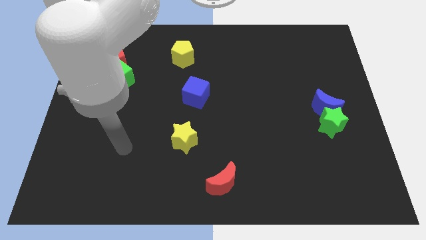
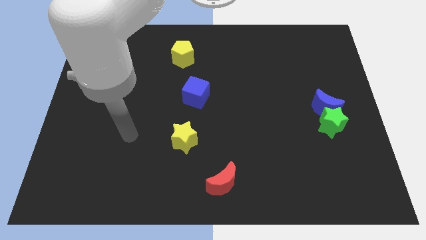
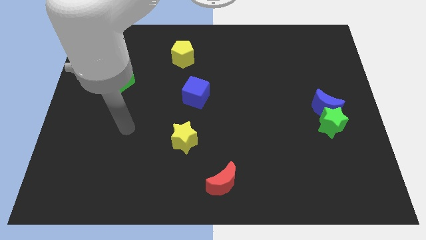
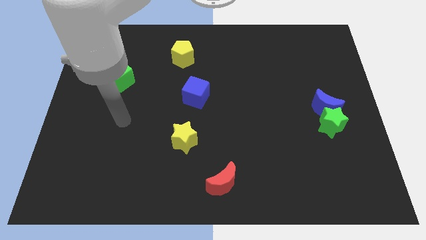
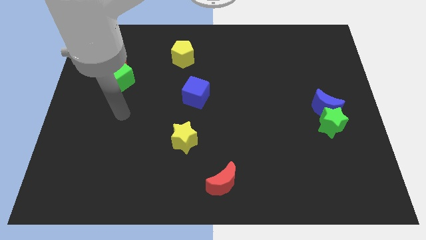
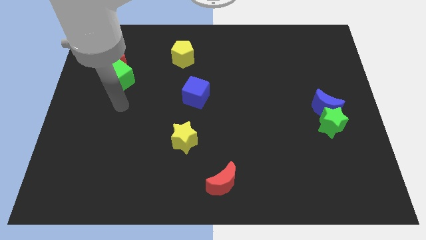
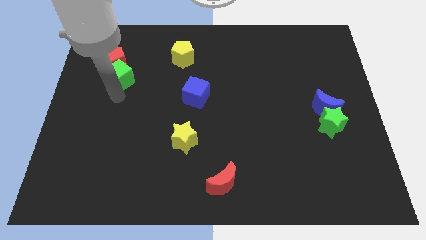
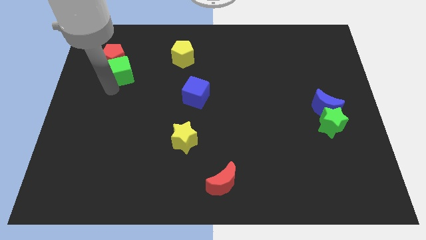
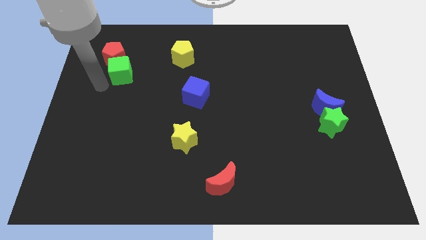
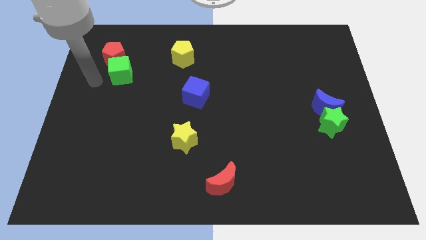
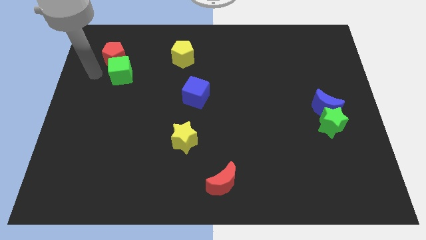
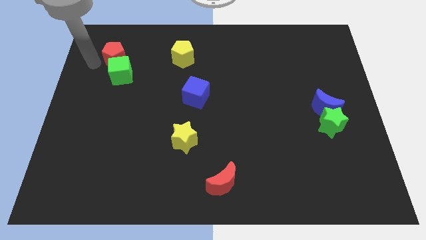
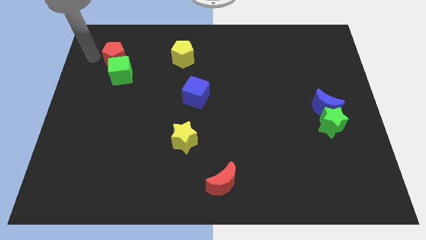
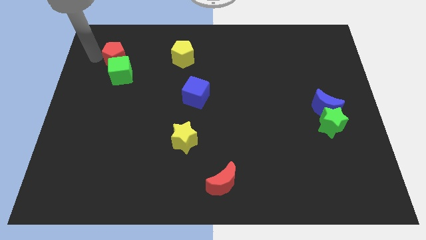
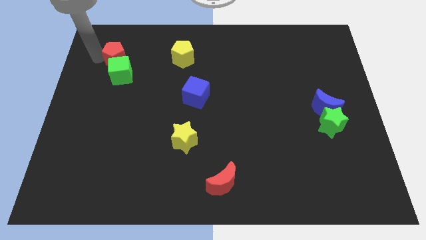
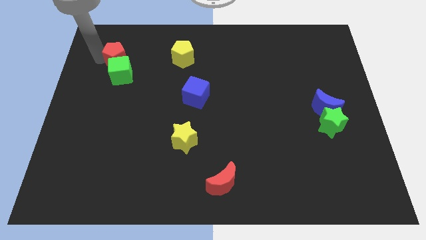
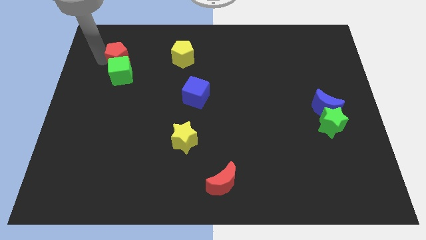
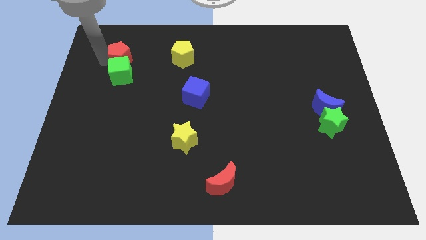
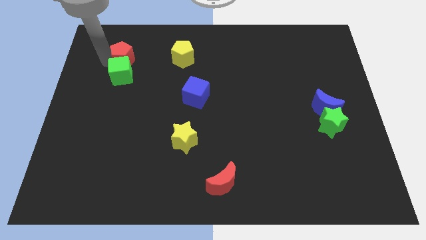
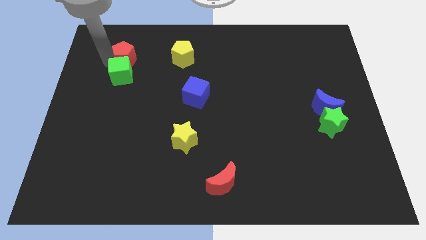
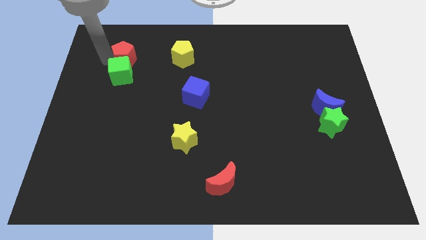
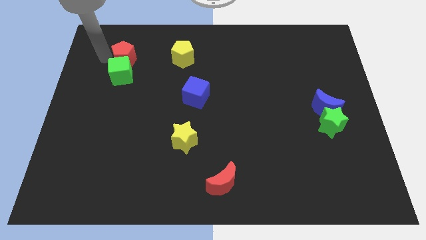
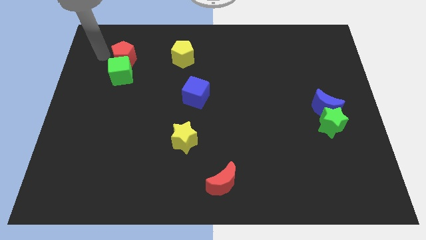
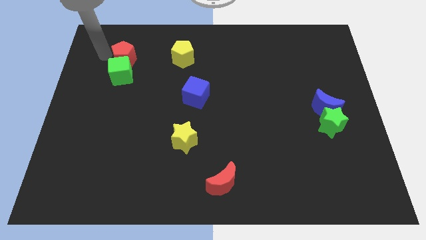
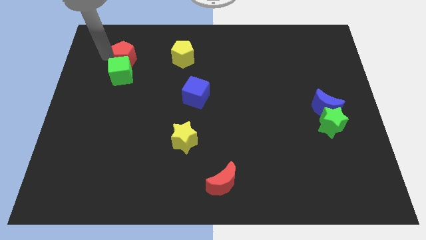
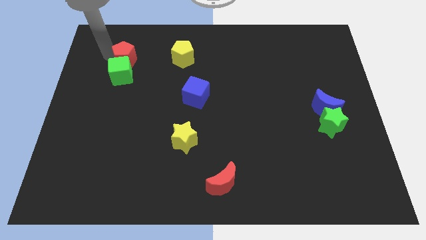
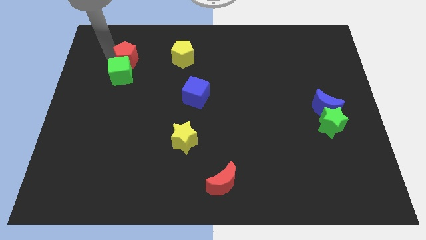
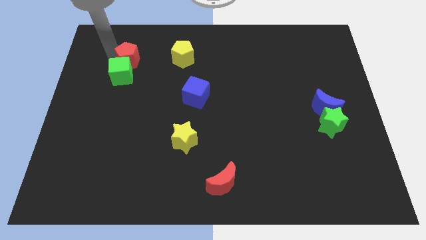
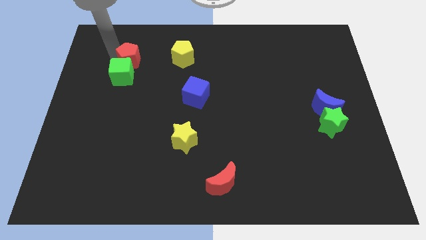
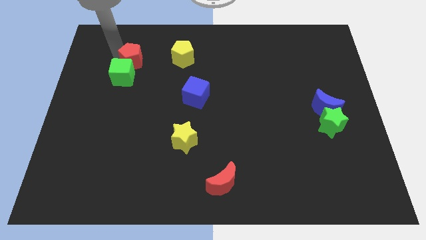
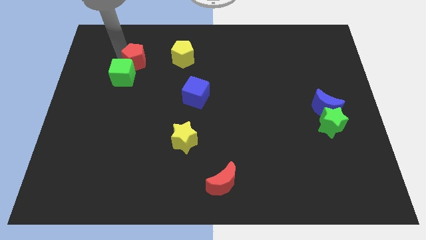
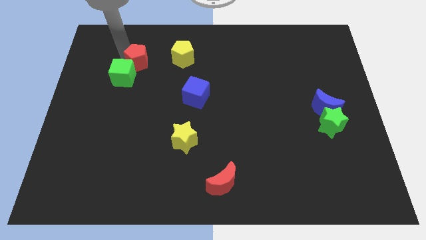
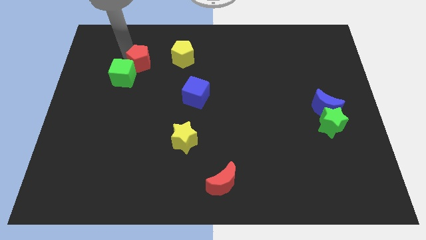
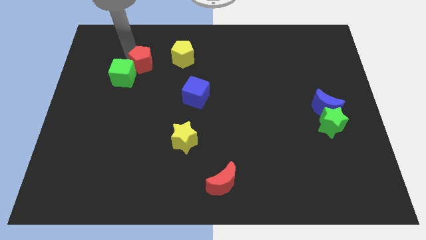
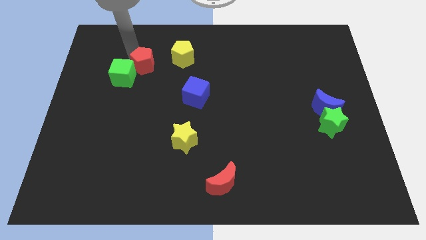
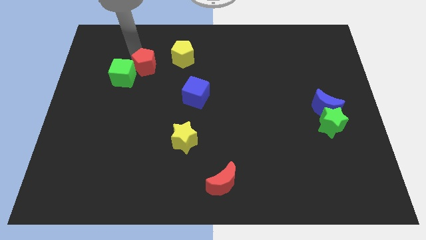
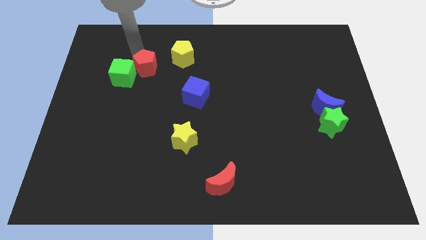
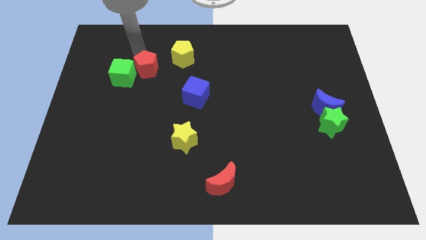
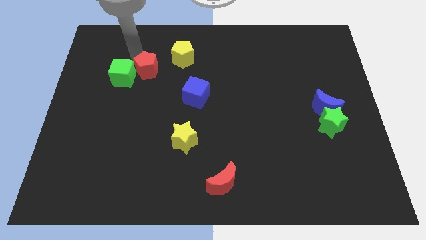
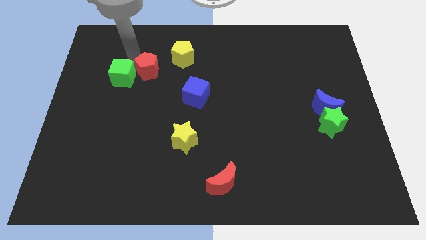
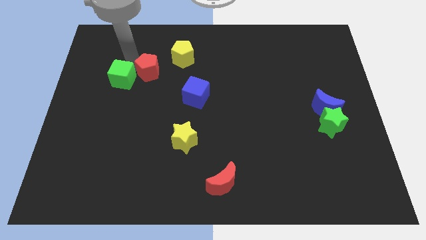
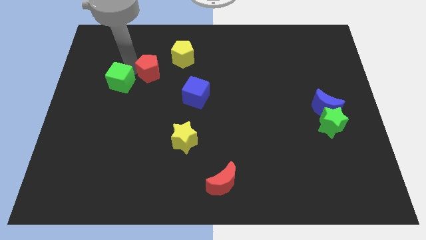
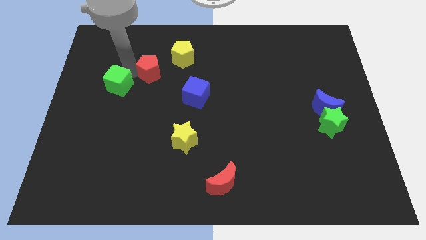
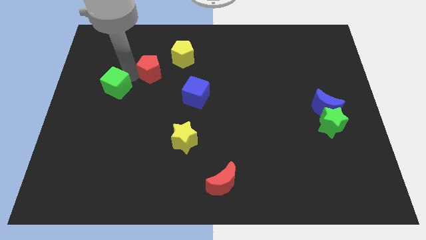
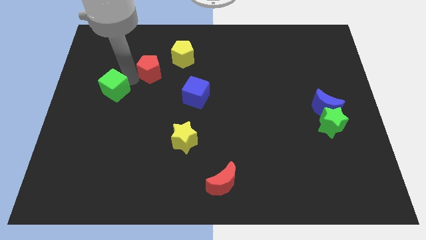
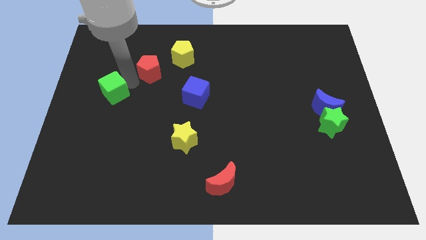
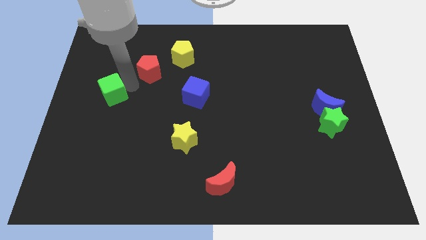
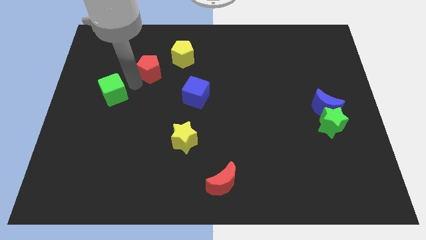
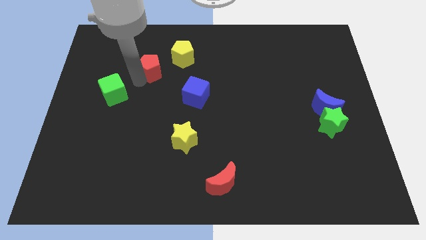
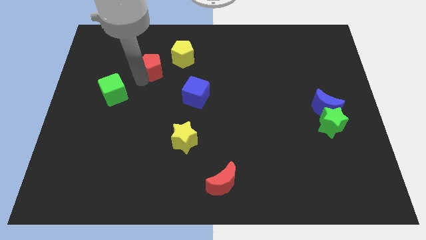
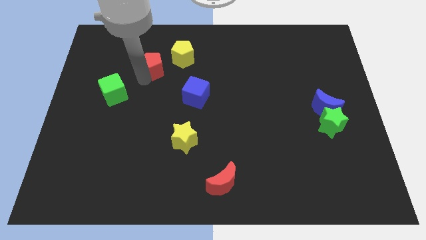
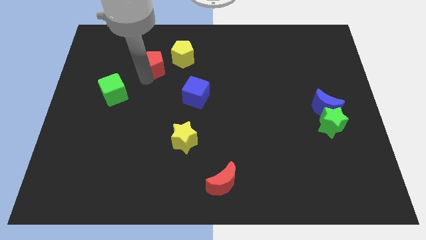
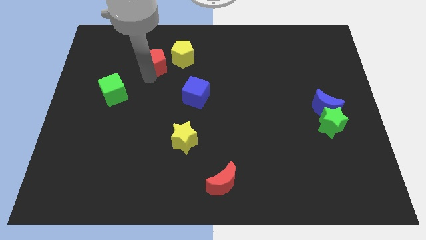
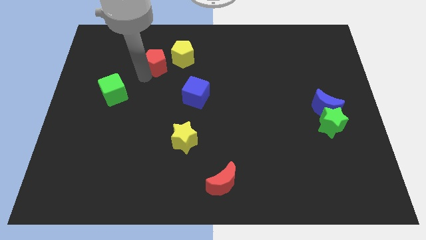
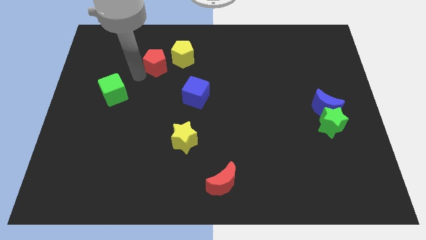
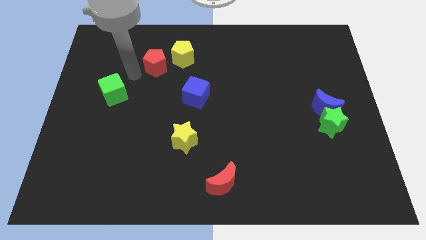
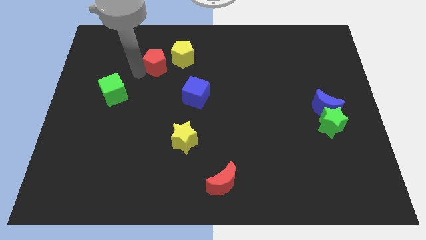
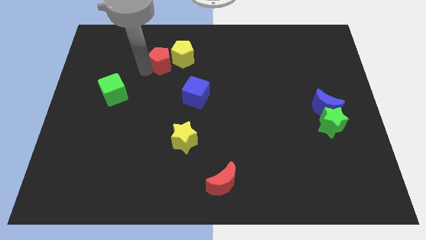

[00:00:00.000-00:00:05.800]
move the red pentagon next to the yellow pentagon

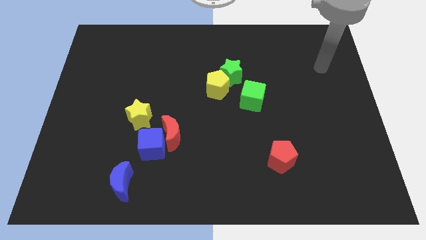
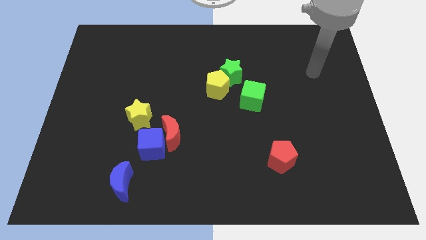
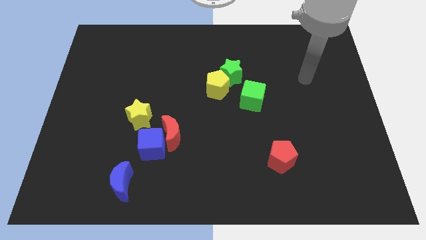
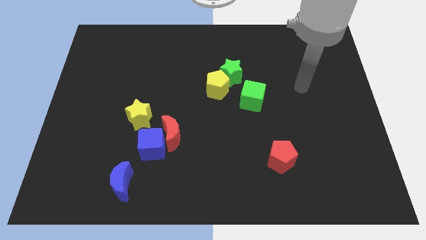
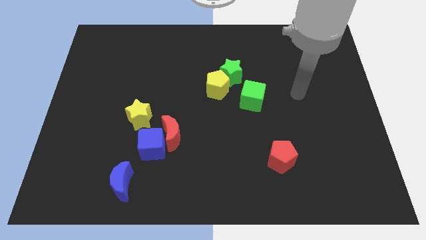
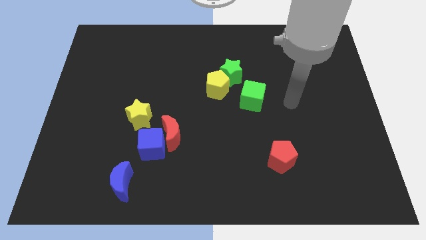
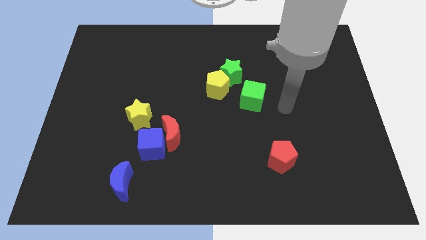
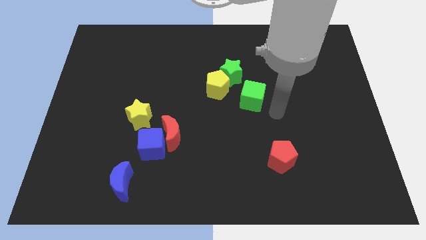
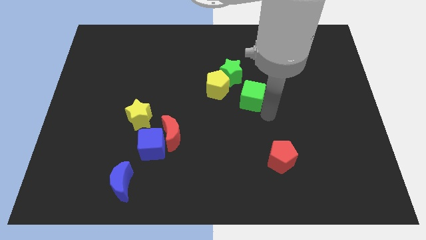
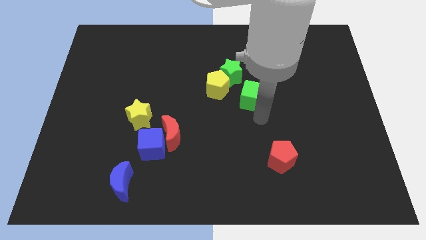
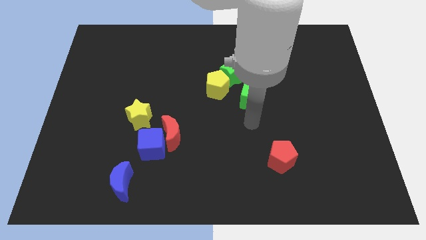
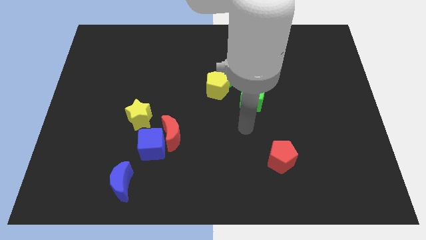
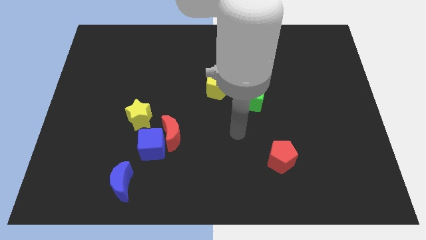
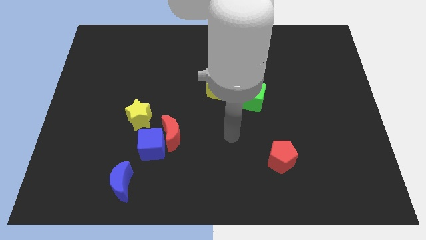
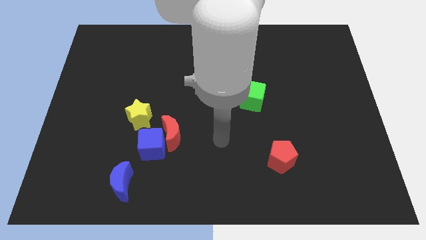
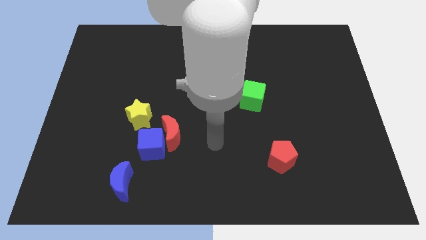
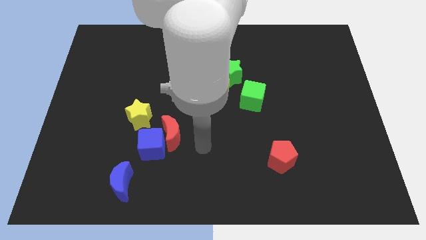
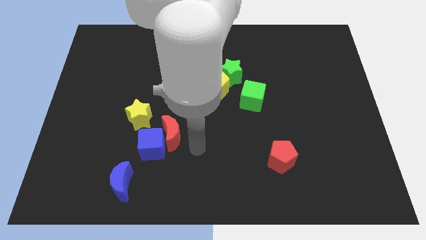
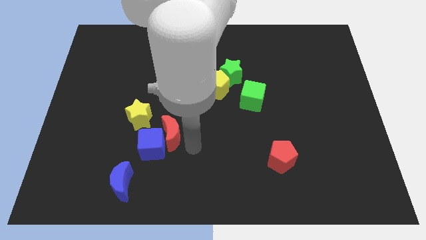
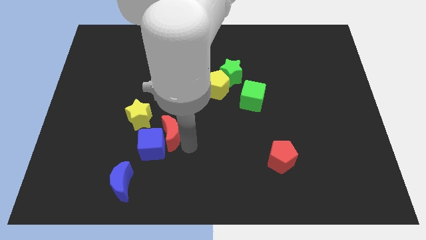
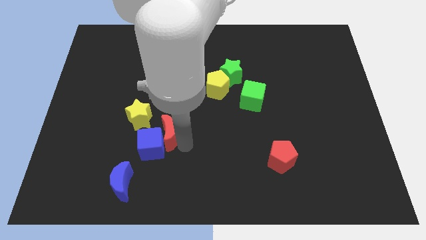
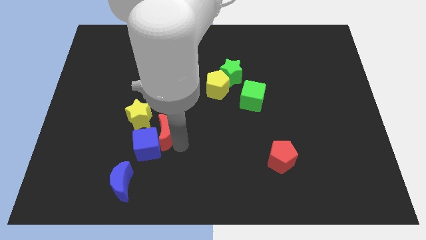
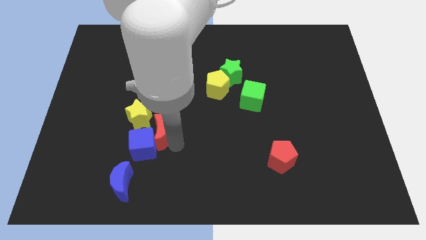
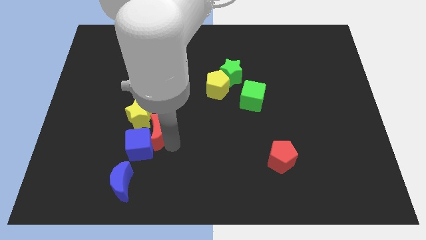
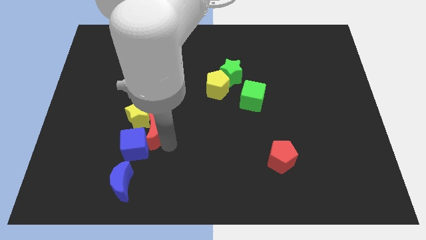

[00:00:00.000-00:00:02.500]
push the red moon next to the yellow star
